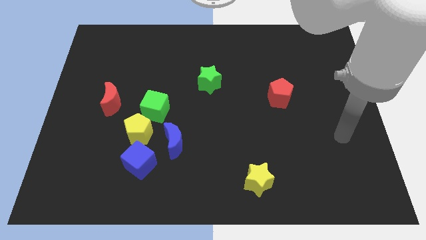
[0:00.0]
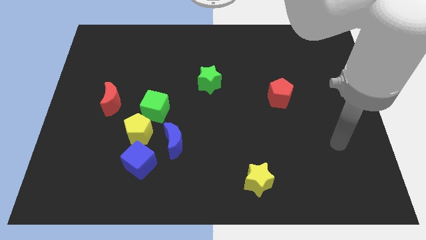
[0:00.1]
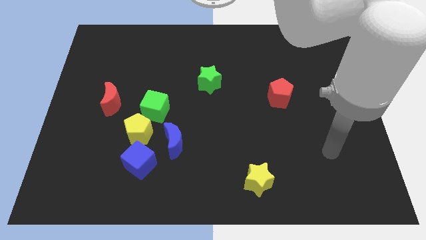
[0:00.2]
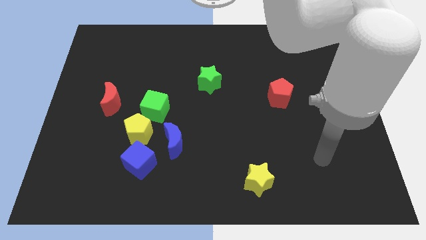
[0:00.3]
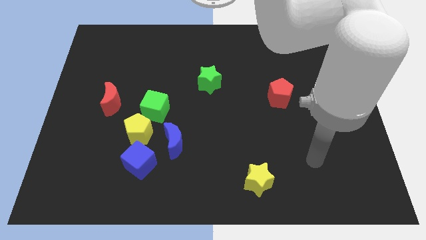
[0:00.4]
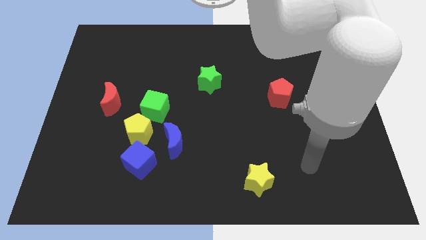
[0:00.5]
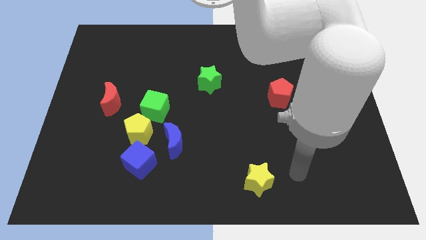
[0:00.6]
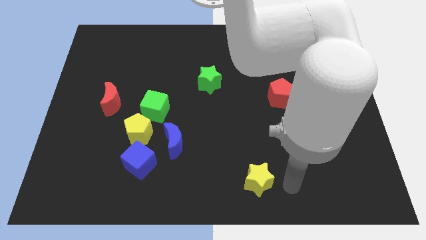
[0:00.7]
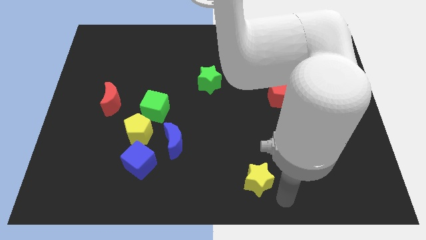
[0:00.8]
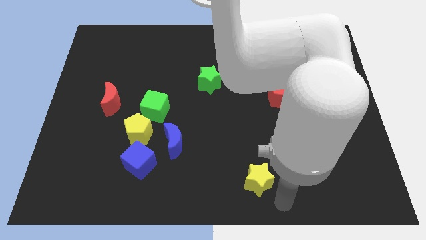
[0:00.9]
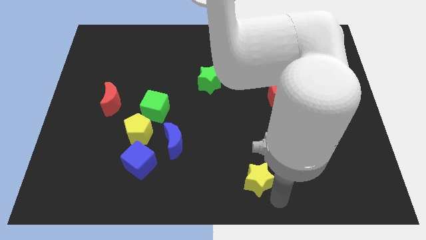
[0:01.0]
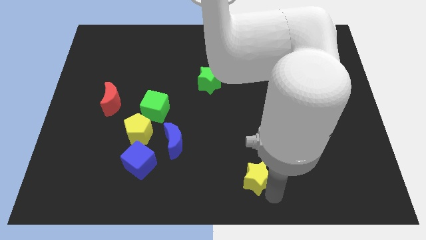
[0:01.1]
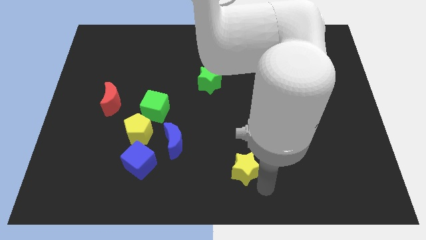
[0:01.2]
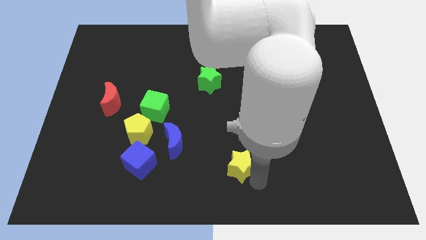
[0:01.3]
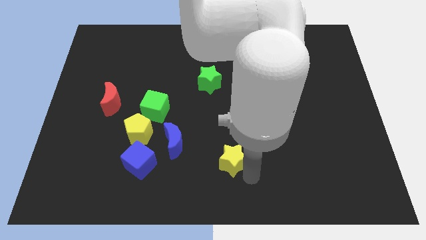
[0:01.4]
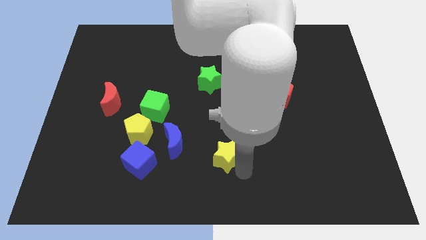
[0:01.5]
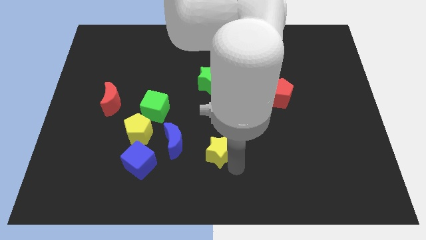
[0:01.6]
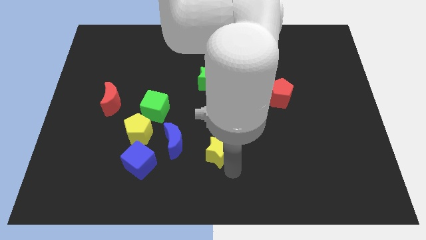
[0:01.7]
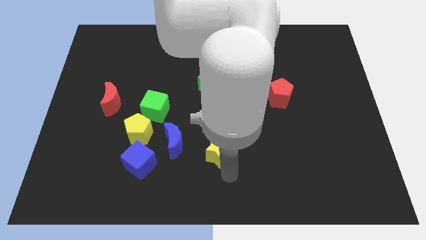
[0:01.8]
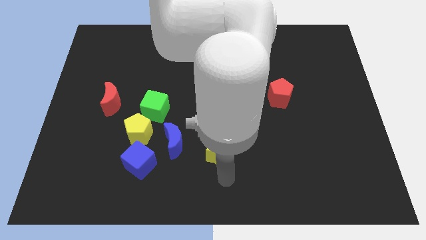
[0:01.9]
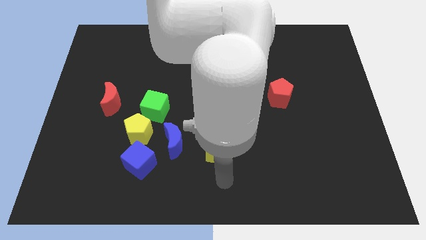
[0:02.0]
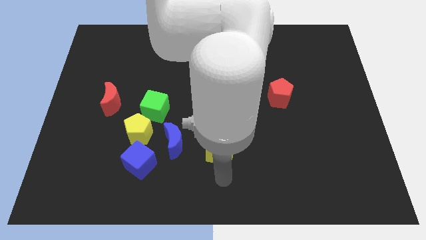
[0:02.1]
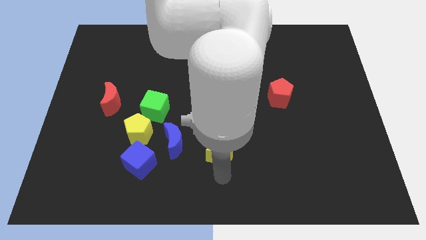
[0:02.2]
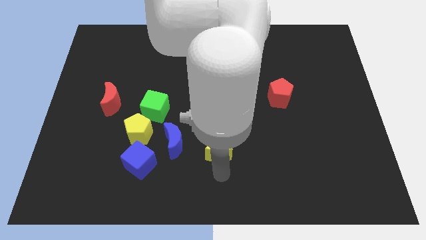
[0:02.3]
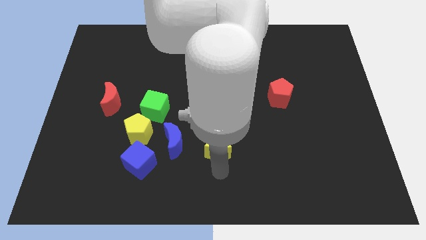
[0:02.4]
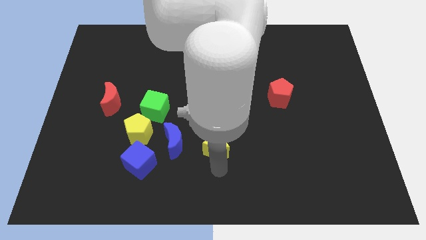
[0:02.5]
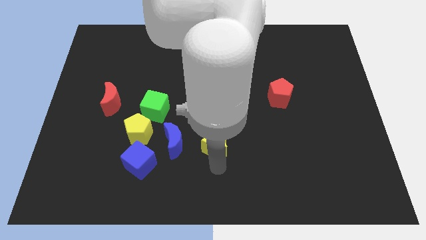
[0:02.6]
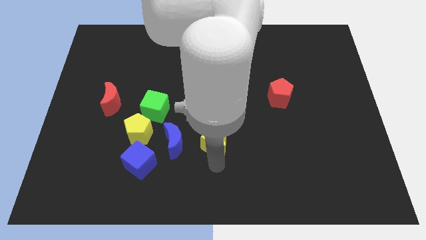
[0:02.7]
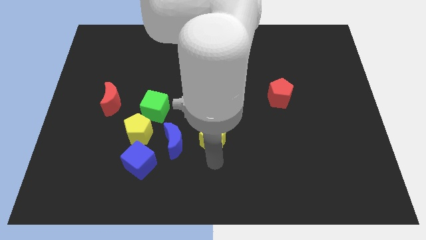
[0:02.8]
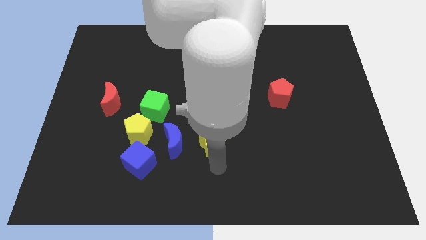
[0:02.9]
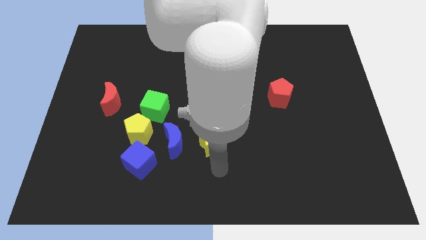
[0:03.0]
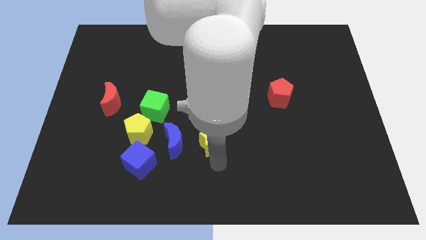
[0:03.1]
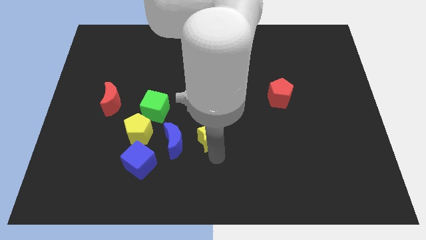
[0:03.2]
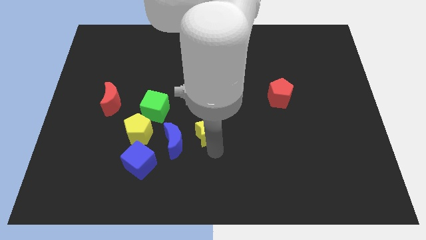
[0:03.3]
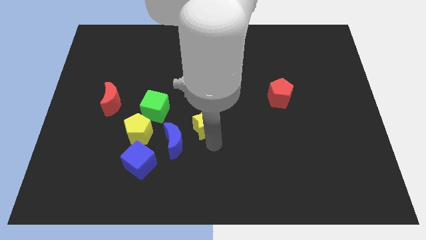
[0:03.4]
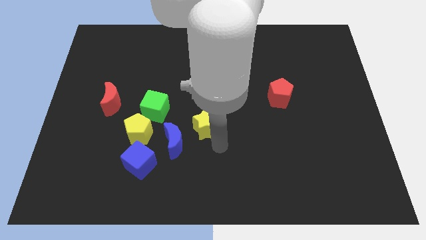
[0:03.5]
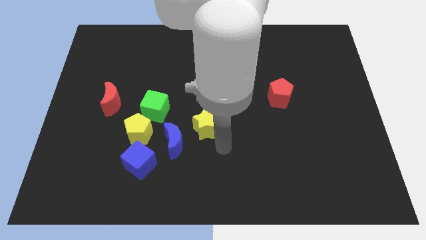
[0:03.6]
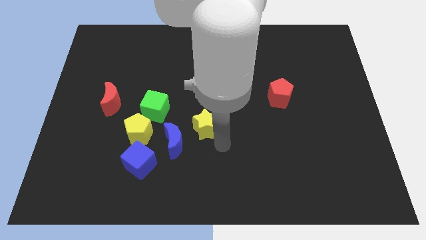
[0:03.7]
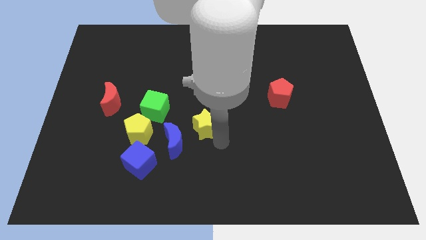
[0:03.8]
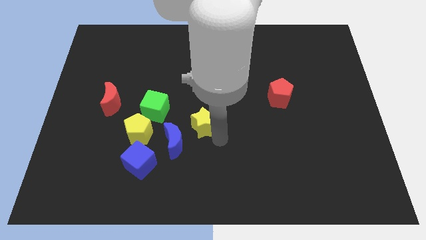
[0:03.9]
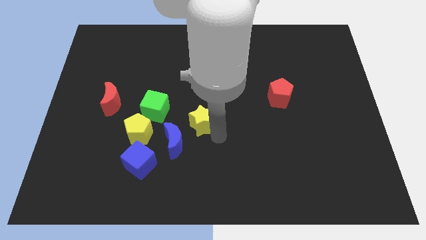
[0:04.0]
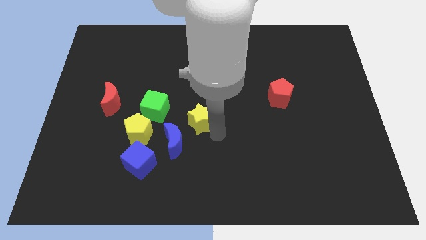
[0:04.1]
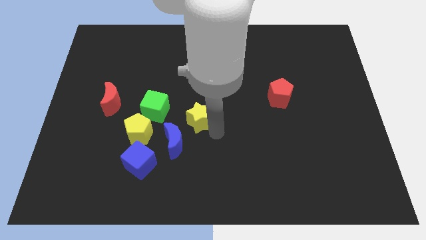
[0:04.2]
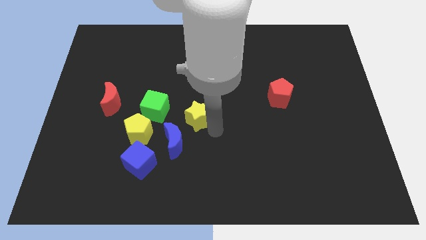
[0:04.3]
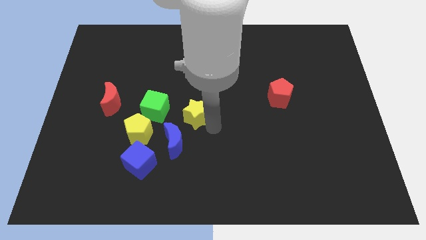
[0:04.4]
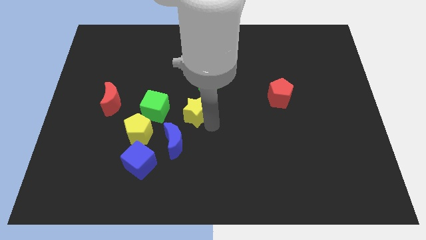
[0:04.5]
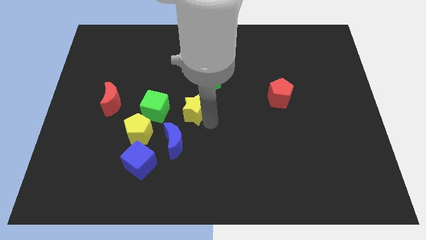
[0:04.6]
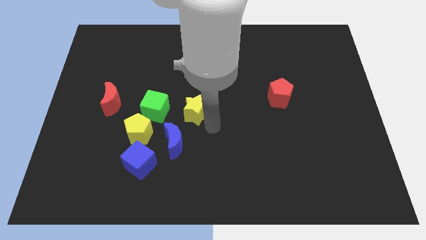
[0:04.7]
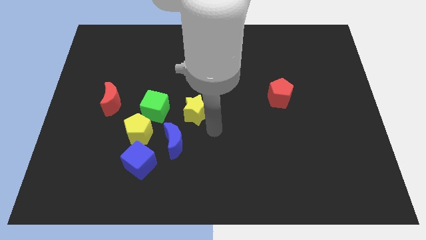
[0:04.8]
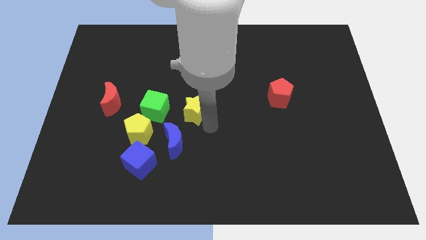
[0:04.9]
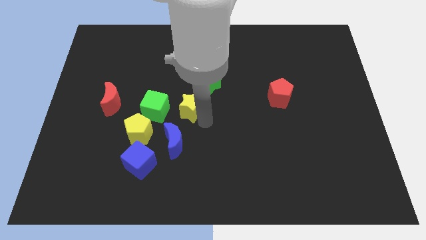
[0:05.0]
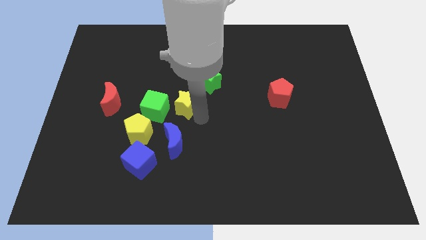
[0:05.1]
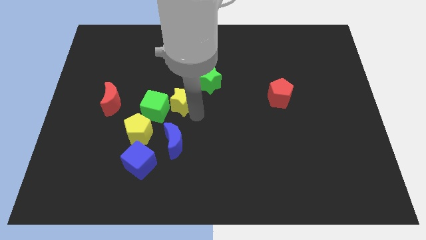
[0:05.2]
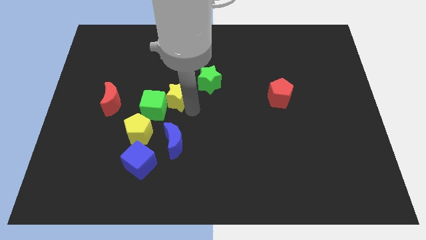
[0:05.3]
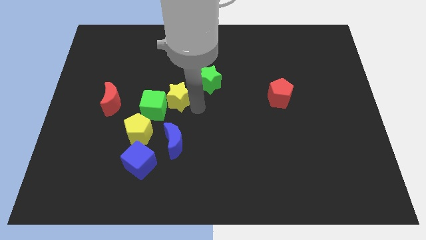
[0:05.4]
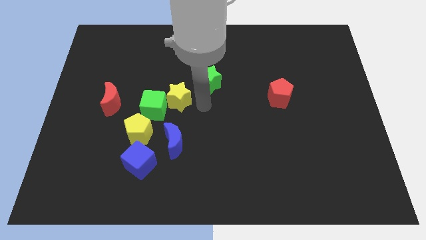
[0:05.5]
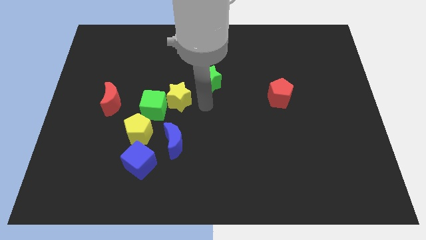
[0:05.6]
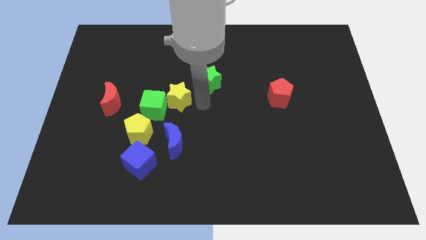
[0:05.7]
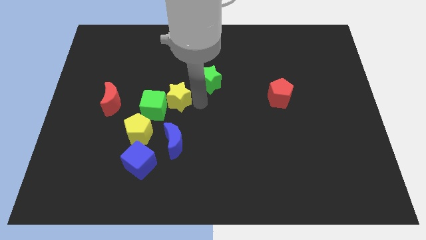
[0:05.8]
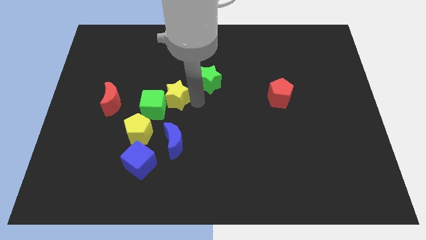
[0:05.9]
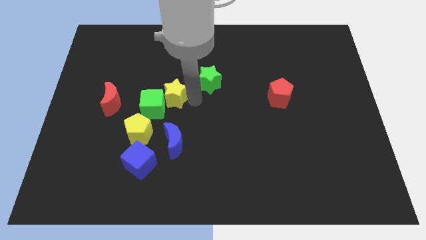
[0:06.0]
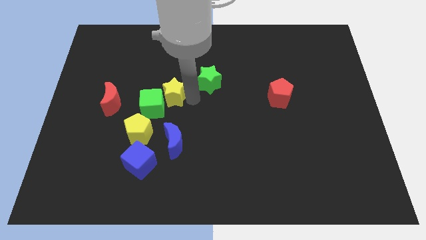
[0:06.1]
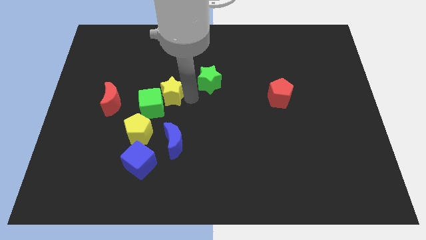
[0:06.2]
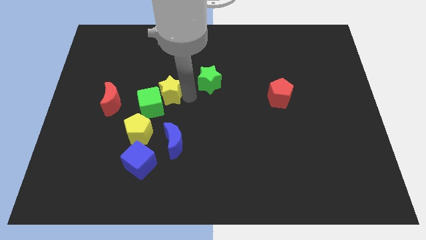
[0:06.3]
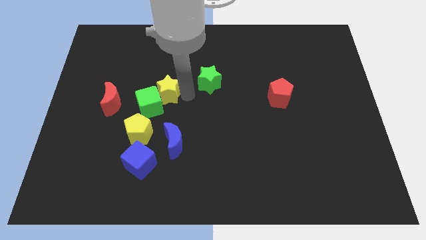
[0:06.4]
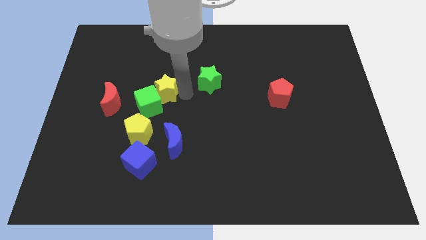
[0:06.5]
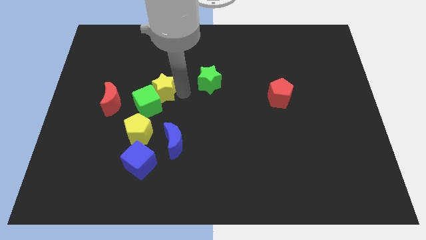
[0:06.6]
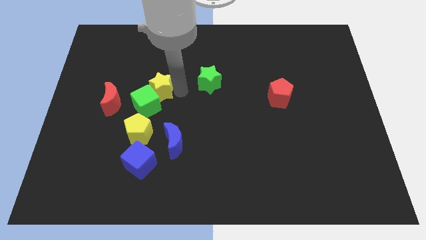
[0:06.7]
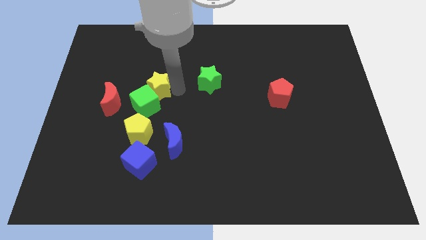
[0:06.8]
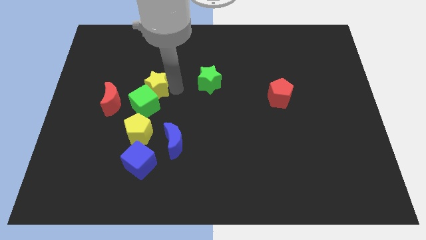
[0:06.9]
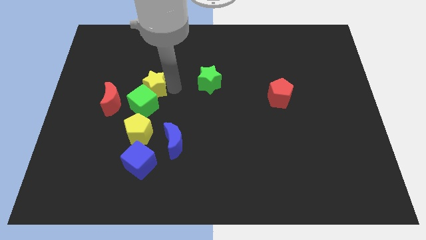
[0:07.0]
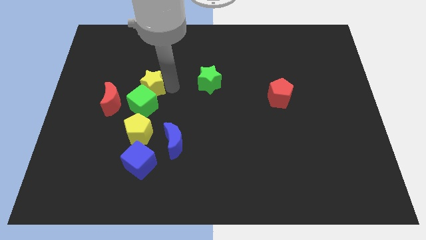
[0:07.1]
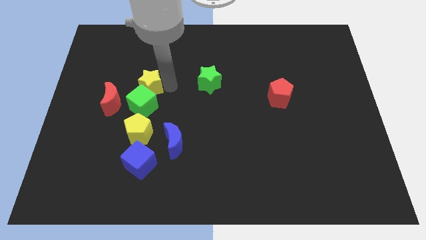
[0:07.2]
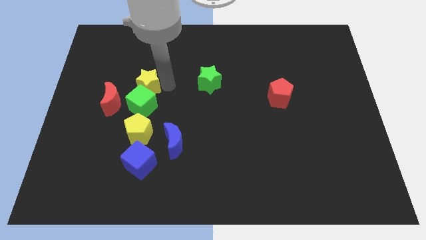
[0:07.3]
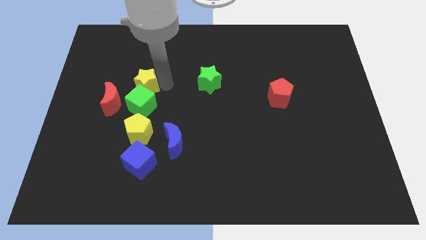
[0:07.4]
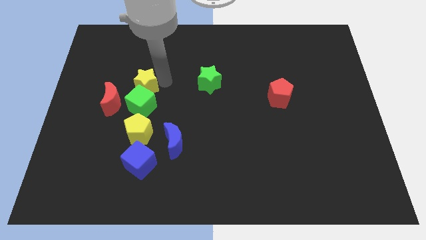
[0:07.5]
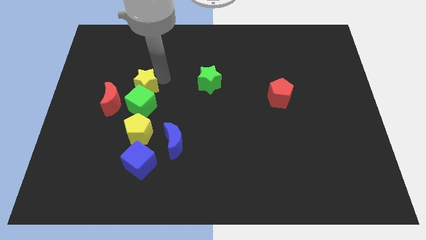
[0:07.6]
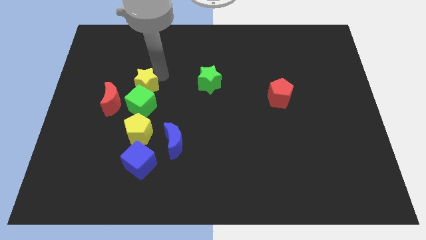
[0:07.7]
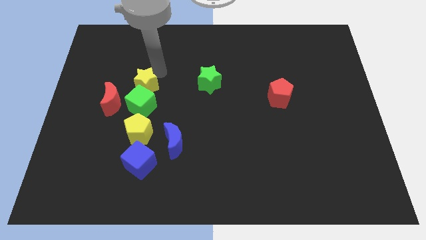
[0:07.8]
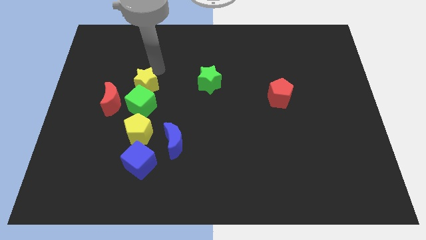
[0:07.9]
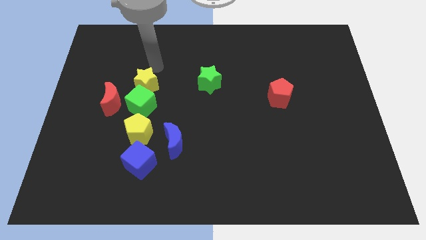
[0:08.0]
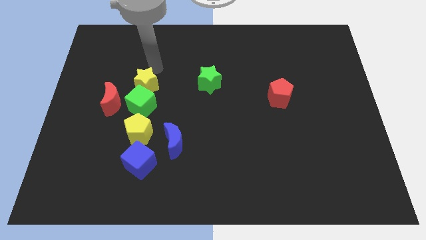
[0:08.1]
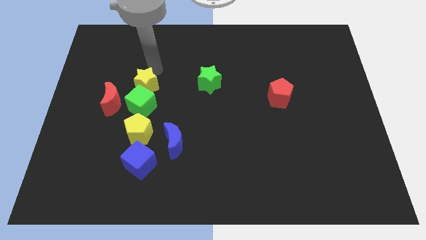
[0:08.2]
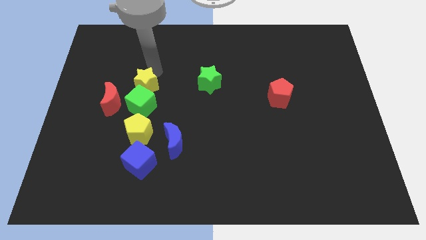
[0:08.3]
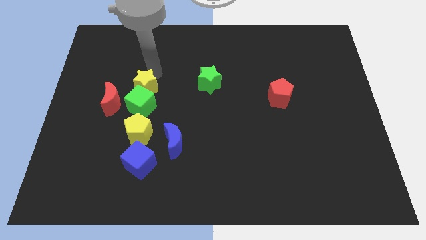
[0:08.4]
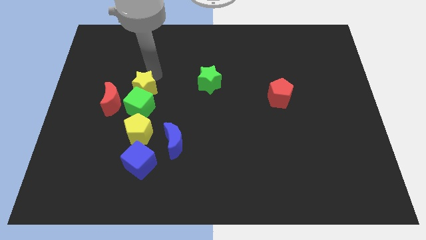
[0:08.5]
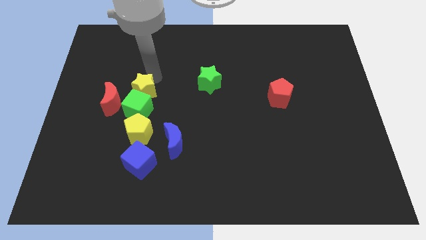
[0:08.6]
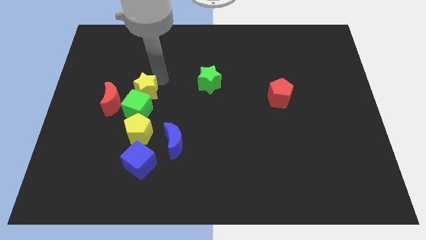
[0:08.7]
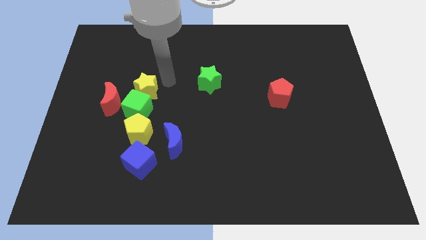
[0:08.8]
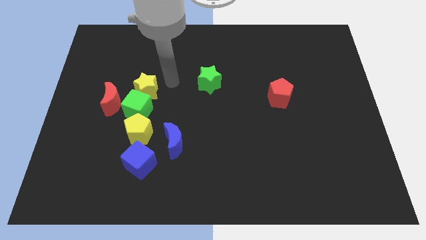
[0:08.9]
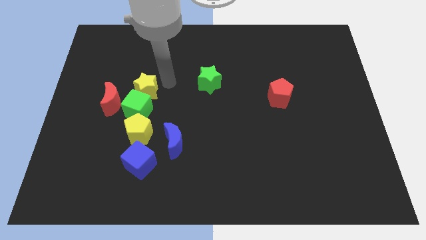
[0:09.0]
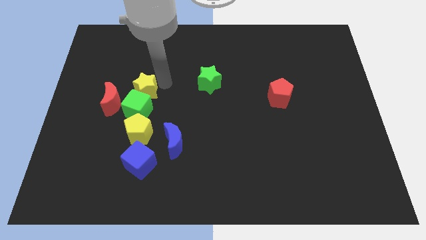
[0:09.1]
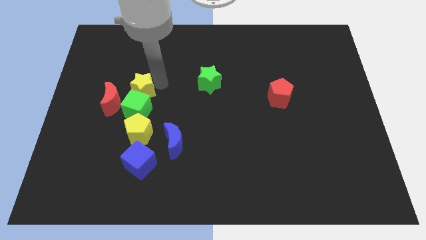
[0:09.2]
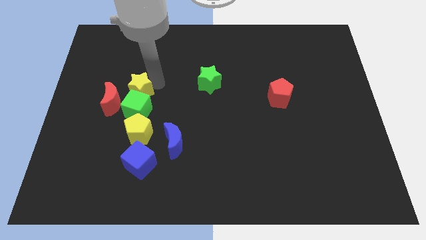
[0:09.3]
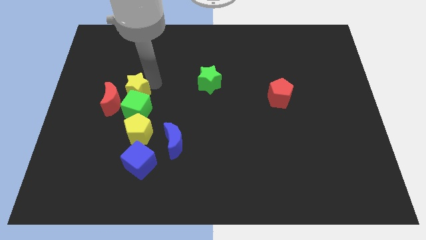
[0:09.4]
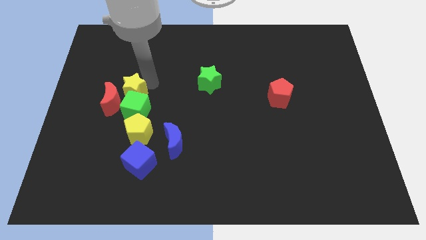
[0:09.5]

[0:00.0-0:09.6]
slide the yellow star next to the red moon
